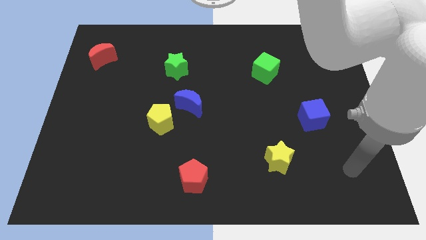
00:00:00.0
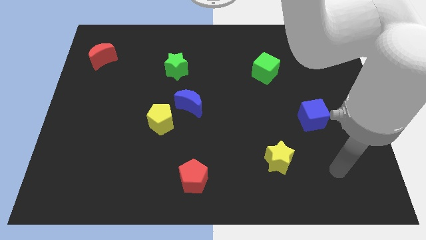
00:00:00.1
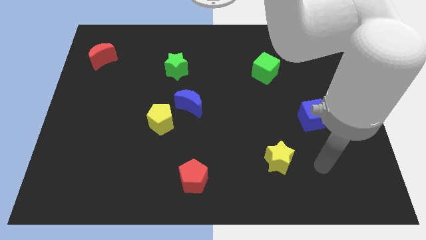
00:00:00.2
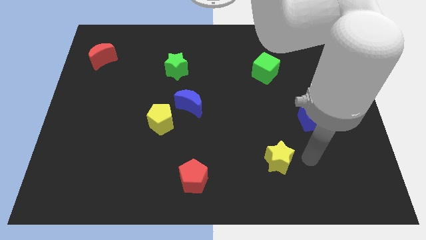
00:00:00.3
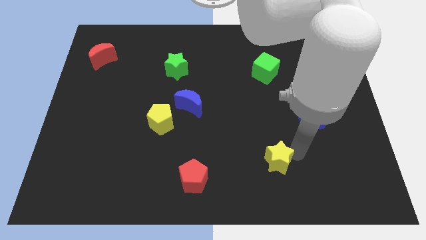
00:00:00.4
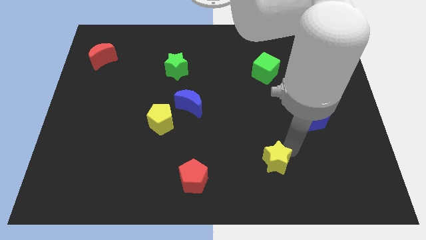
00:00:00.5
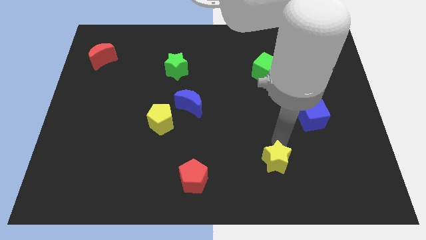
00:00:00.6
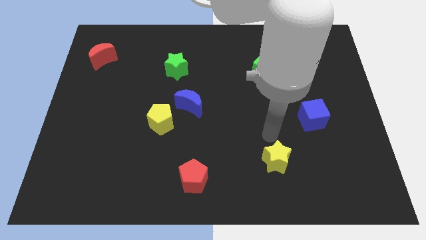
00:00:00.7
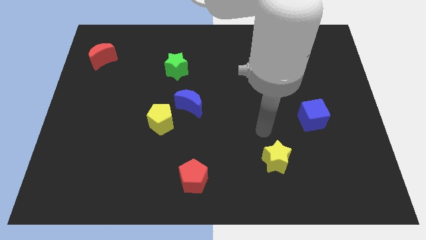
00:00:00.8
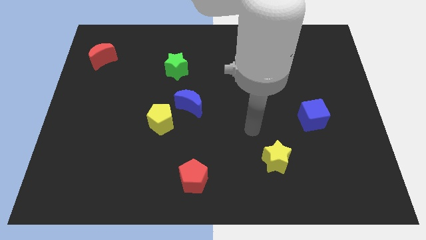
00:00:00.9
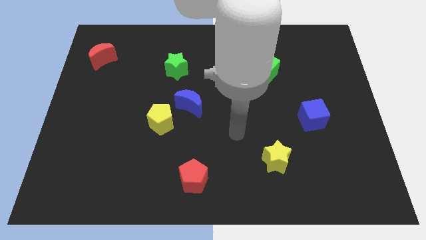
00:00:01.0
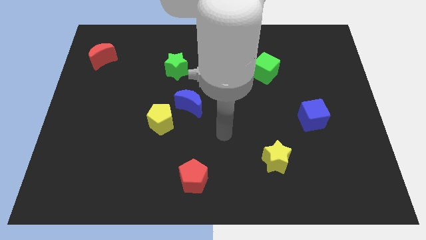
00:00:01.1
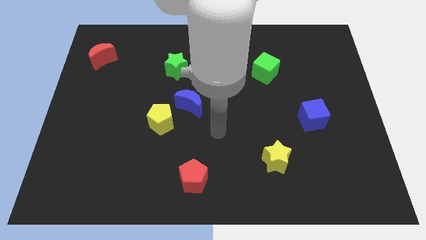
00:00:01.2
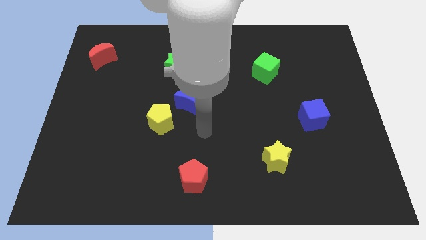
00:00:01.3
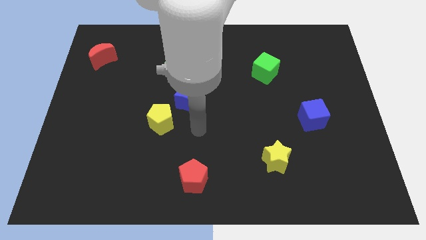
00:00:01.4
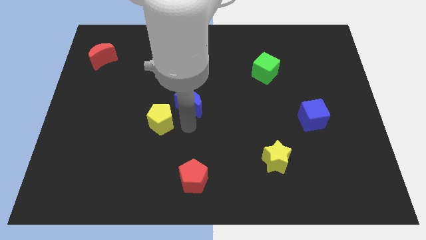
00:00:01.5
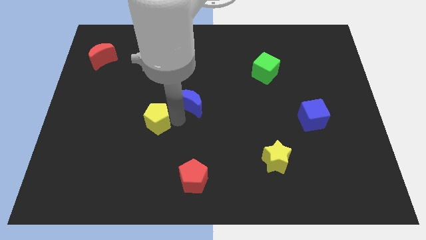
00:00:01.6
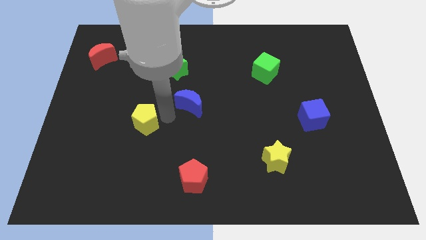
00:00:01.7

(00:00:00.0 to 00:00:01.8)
move the blue moon away from the yellow pentagon

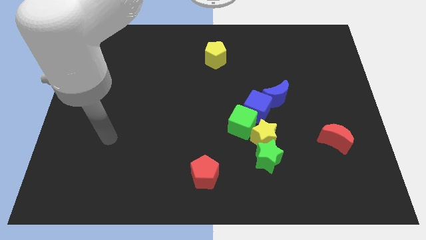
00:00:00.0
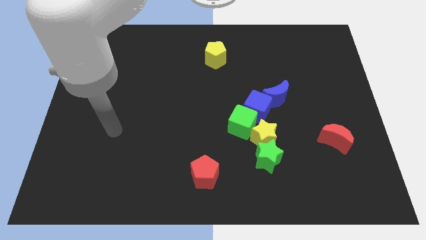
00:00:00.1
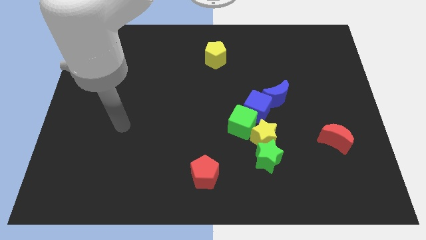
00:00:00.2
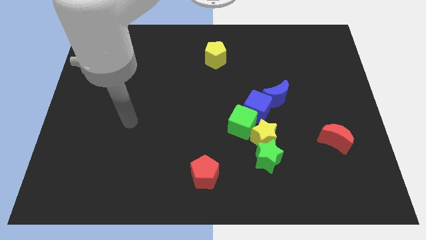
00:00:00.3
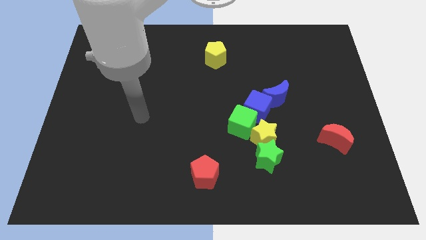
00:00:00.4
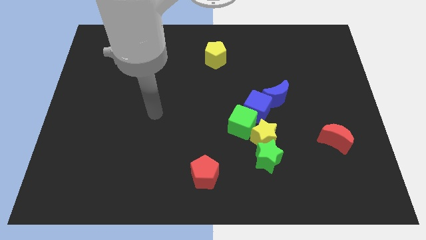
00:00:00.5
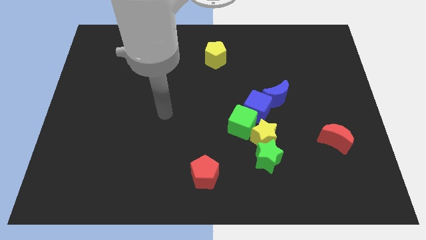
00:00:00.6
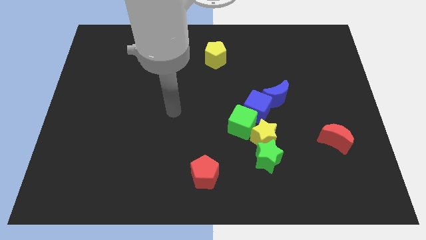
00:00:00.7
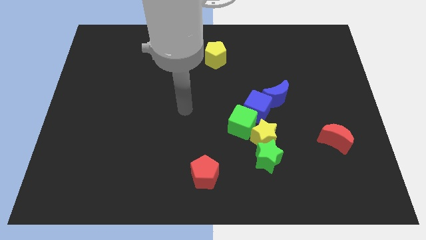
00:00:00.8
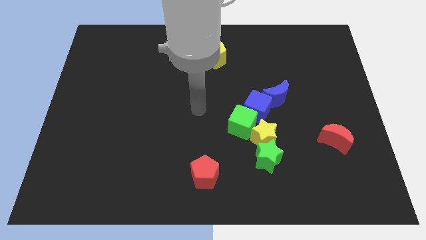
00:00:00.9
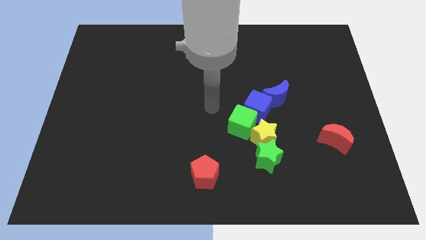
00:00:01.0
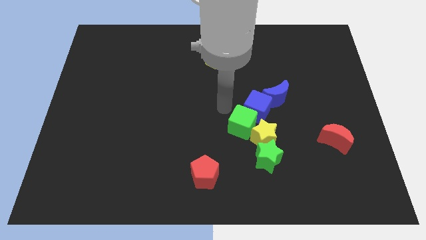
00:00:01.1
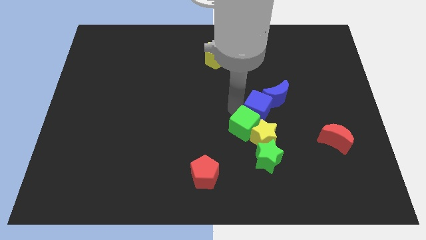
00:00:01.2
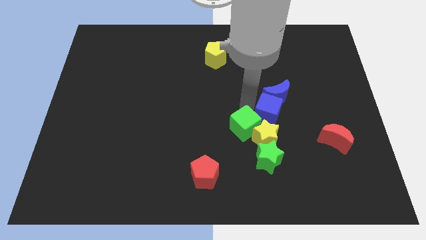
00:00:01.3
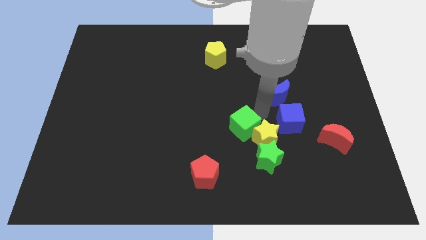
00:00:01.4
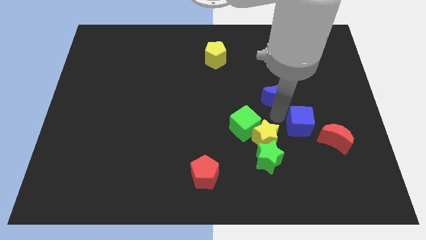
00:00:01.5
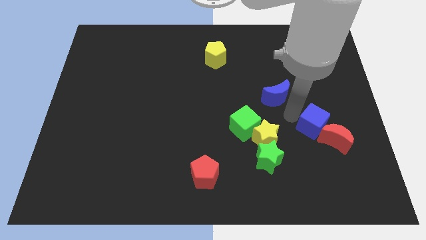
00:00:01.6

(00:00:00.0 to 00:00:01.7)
separate the blue moon from the blue cube

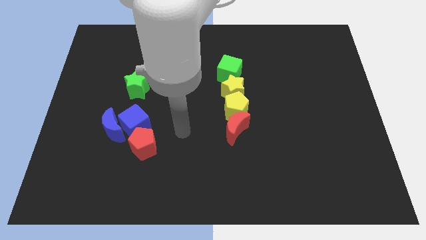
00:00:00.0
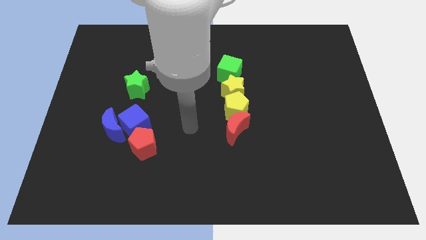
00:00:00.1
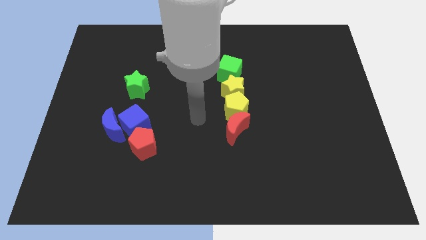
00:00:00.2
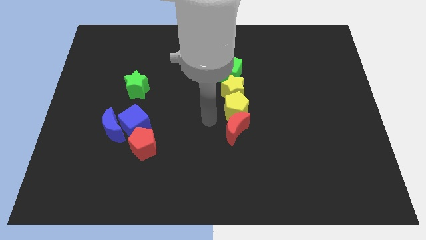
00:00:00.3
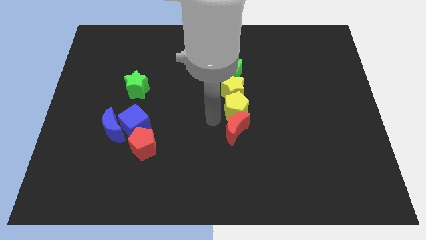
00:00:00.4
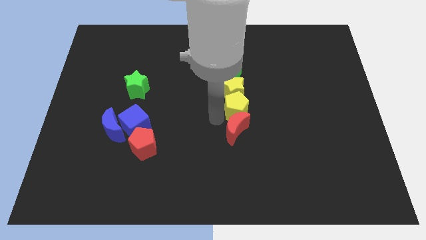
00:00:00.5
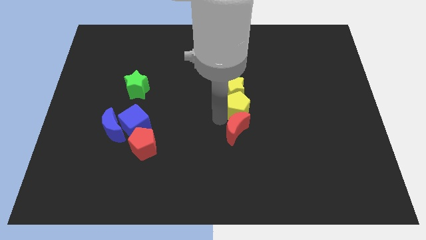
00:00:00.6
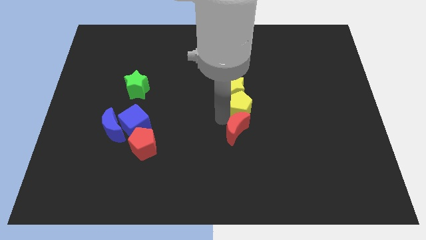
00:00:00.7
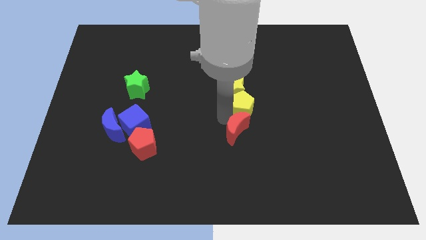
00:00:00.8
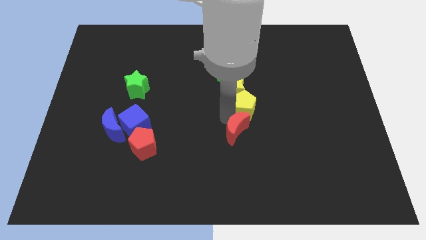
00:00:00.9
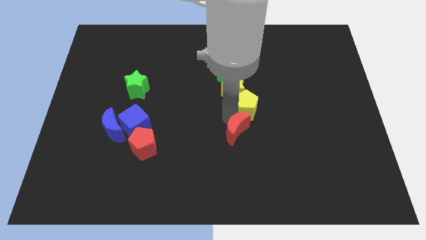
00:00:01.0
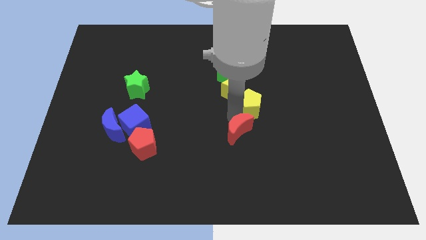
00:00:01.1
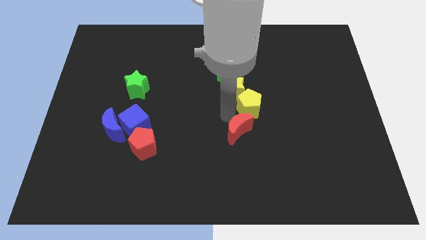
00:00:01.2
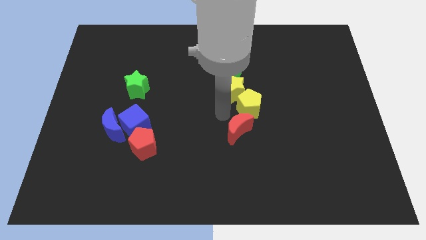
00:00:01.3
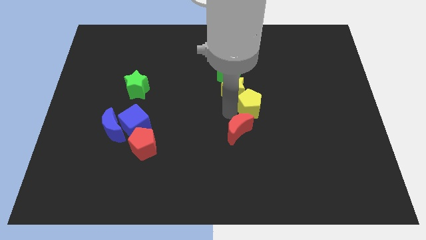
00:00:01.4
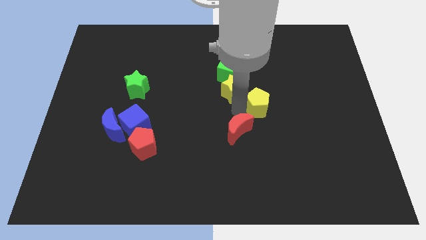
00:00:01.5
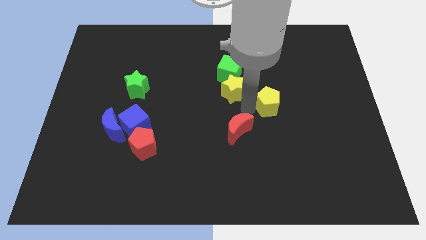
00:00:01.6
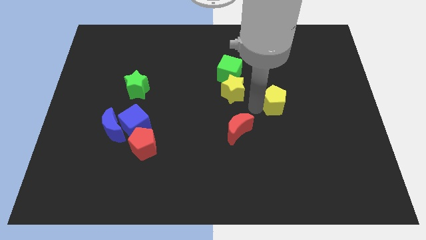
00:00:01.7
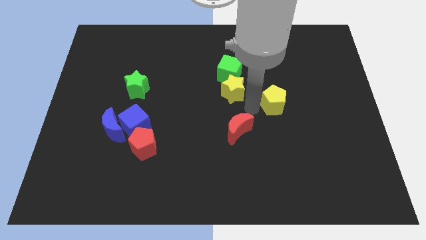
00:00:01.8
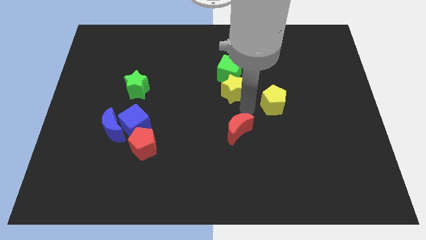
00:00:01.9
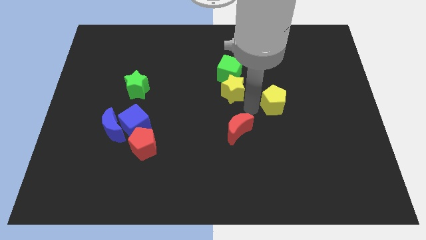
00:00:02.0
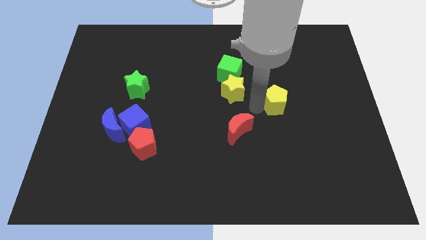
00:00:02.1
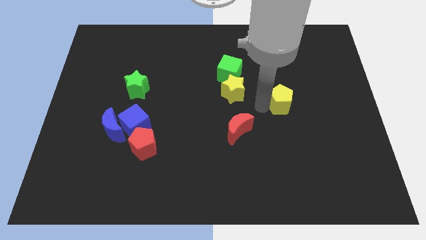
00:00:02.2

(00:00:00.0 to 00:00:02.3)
pull the yellow pentagon apart from the yellow star and red moon

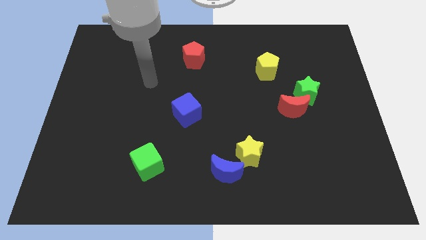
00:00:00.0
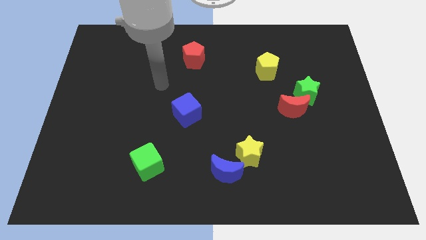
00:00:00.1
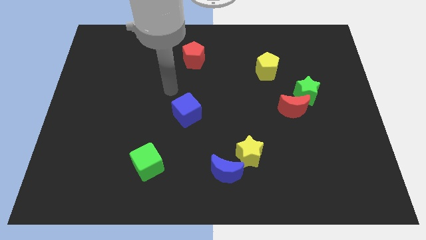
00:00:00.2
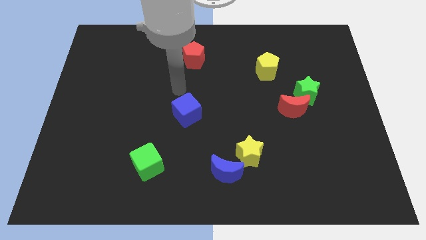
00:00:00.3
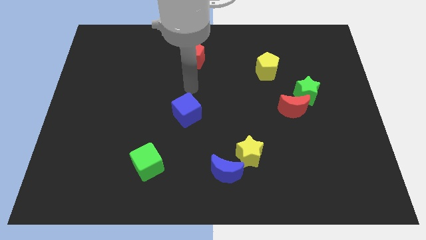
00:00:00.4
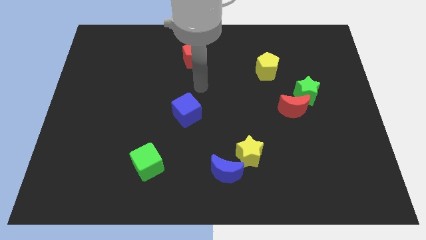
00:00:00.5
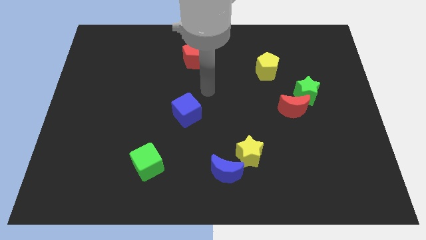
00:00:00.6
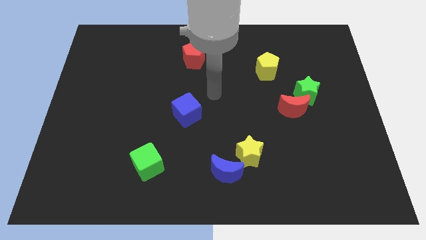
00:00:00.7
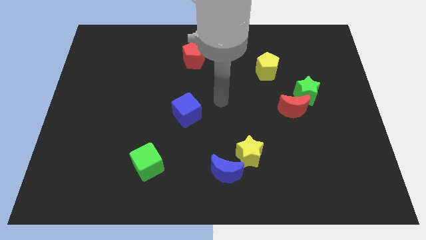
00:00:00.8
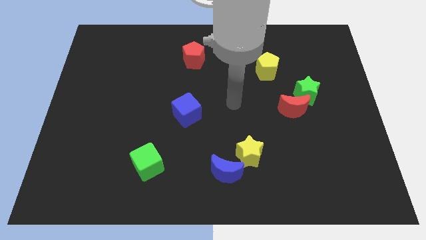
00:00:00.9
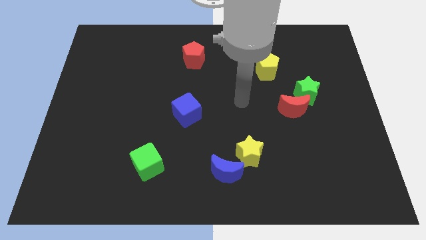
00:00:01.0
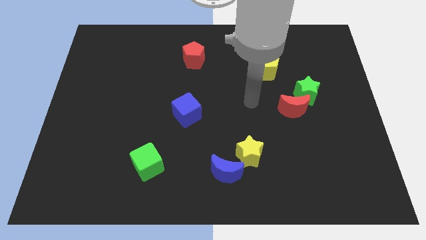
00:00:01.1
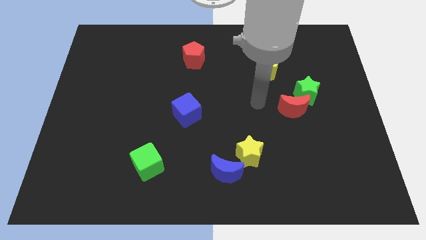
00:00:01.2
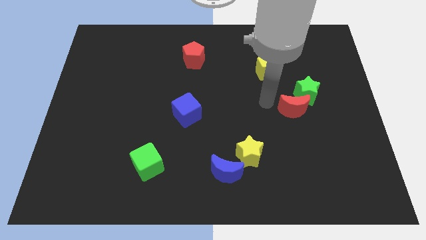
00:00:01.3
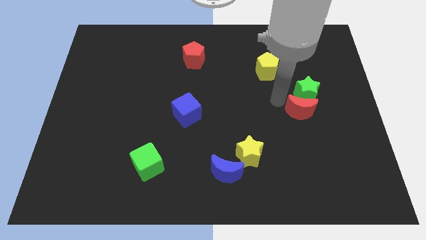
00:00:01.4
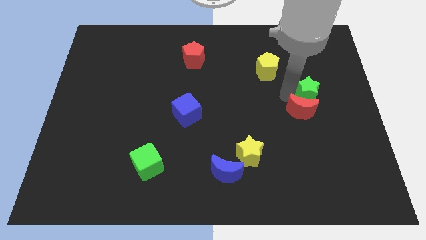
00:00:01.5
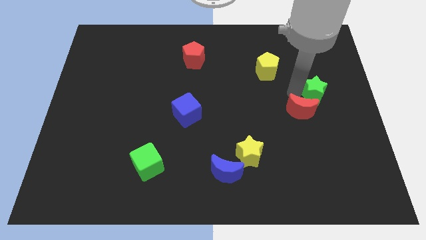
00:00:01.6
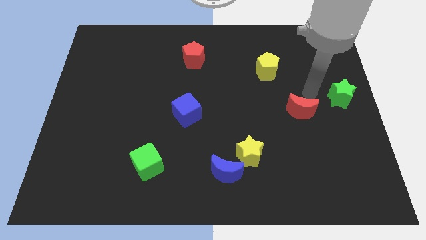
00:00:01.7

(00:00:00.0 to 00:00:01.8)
move the red moon away from the green star

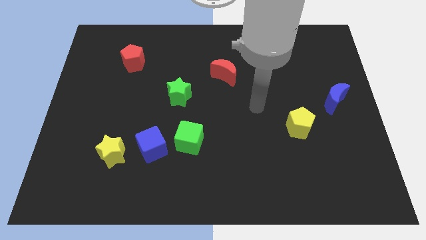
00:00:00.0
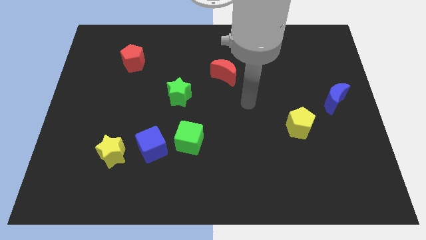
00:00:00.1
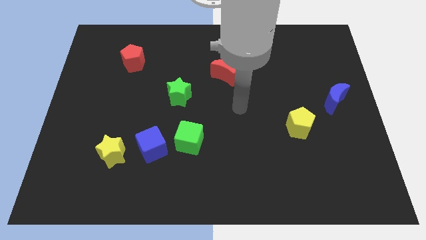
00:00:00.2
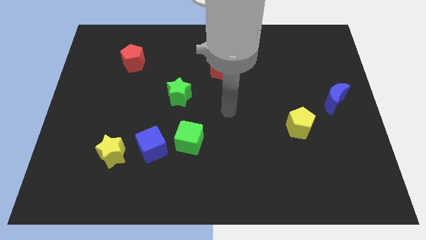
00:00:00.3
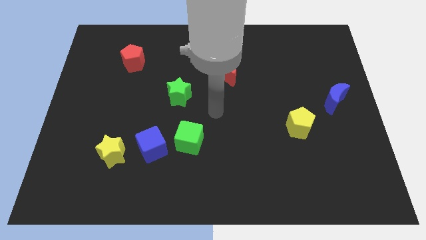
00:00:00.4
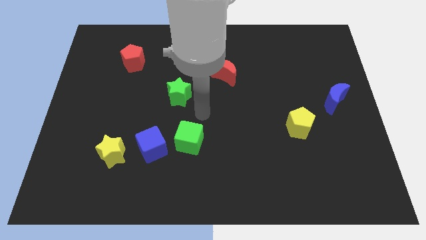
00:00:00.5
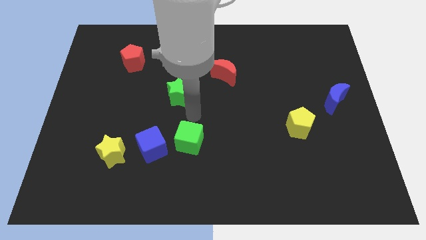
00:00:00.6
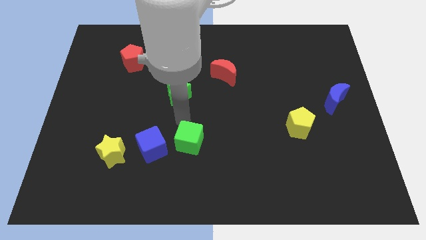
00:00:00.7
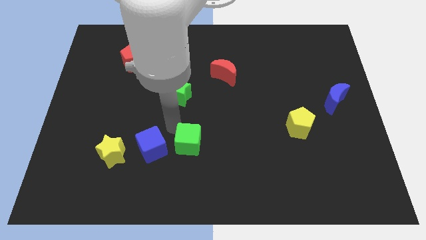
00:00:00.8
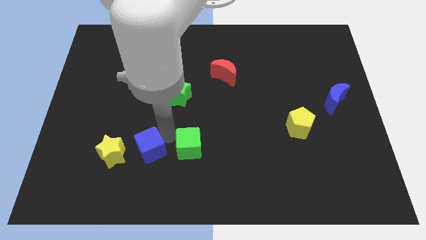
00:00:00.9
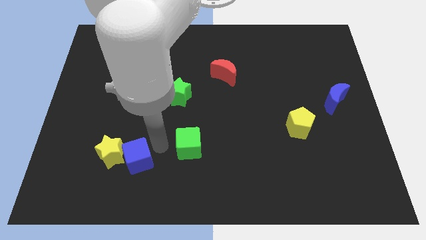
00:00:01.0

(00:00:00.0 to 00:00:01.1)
separate the green cube from the blue cube

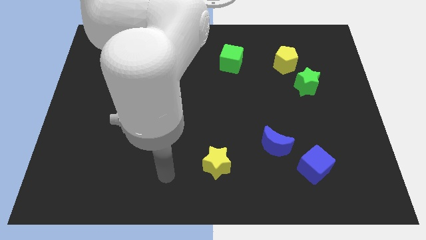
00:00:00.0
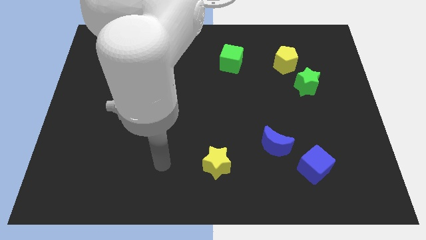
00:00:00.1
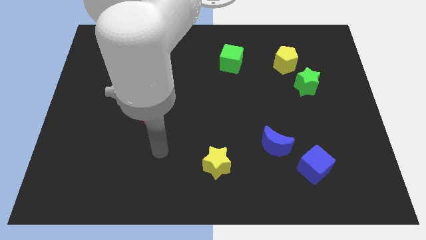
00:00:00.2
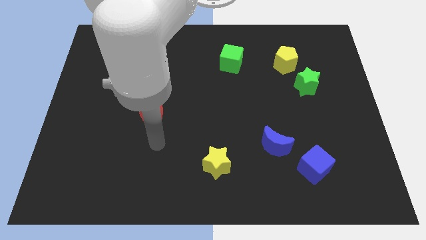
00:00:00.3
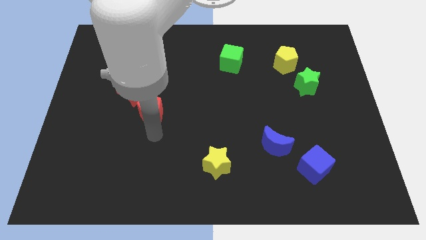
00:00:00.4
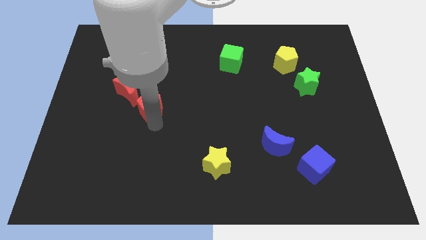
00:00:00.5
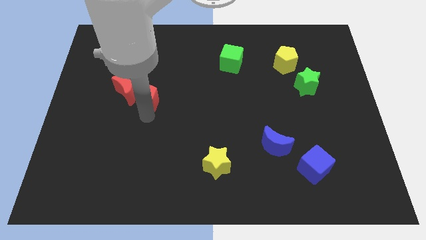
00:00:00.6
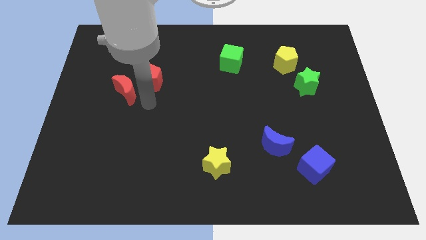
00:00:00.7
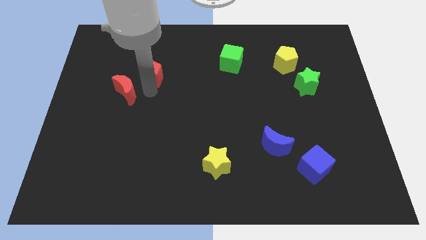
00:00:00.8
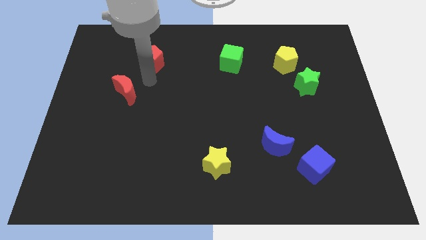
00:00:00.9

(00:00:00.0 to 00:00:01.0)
move the red moon away from the red pentagon
